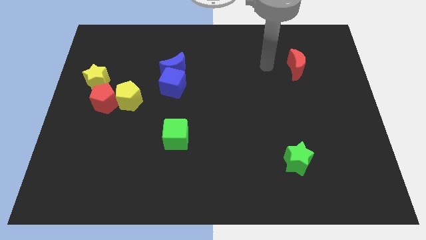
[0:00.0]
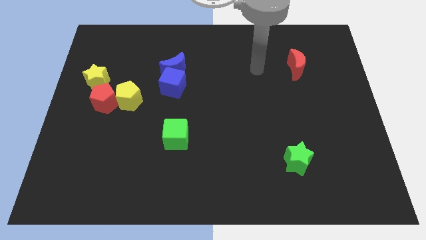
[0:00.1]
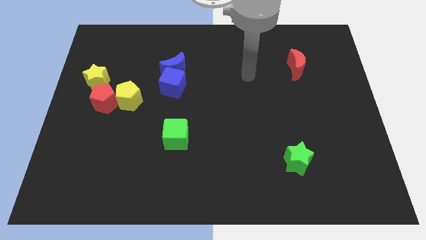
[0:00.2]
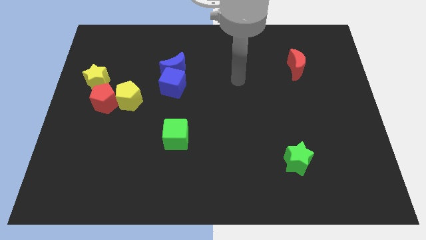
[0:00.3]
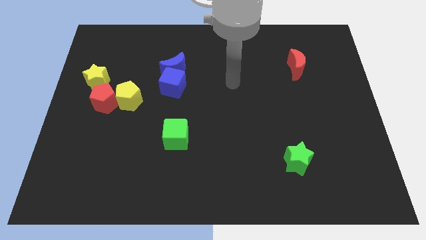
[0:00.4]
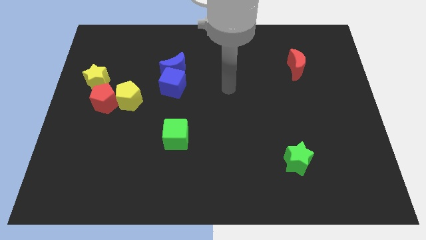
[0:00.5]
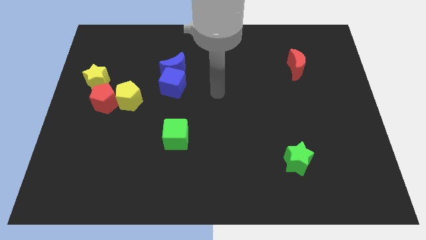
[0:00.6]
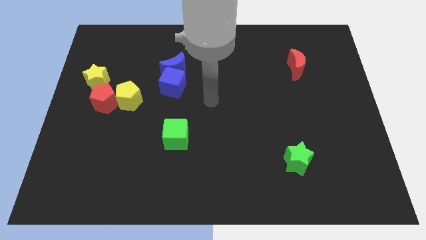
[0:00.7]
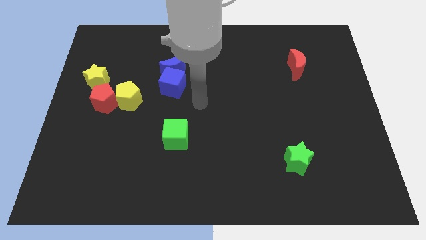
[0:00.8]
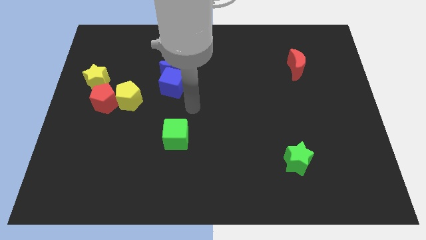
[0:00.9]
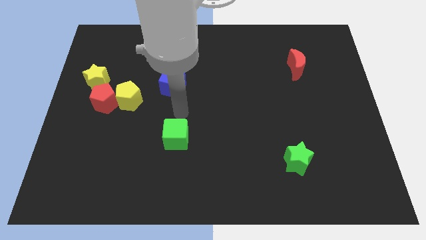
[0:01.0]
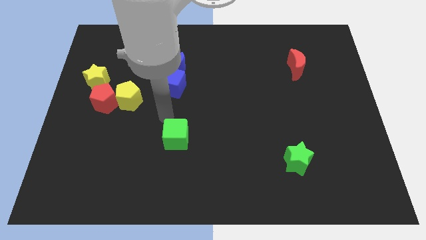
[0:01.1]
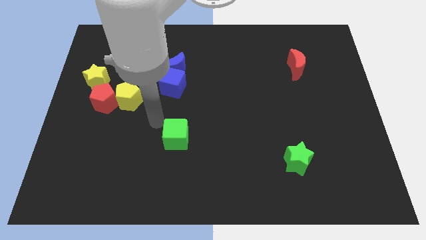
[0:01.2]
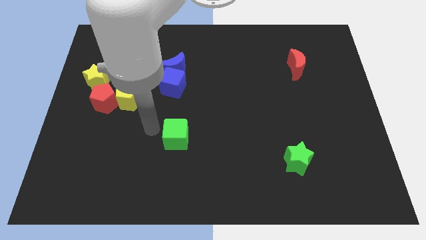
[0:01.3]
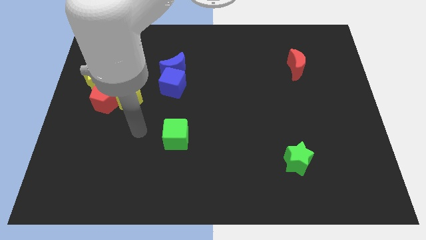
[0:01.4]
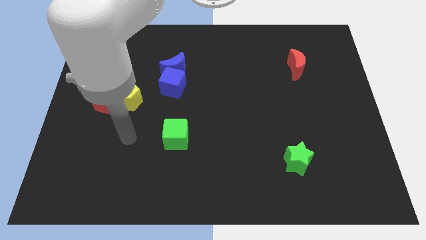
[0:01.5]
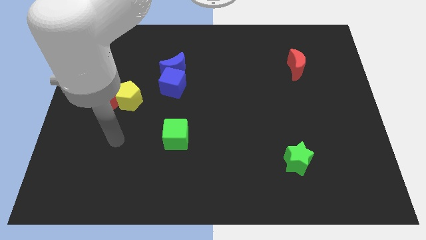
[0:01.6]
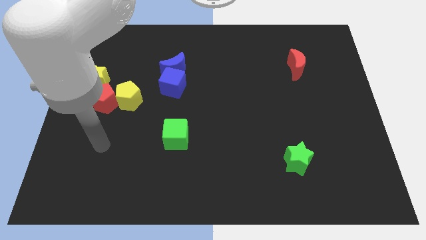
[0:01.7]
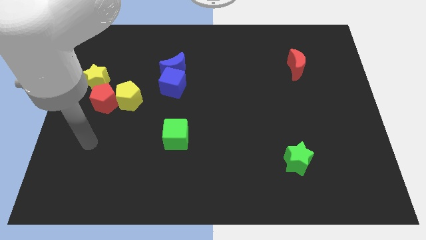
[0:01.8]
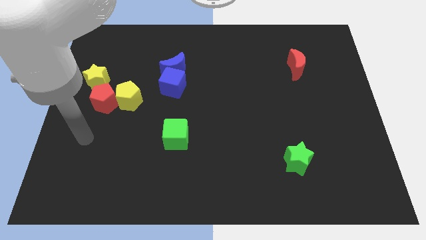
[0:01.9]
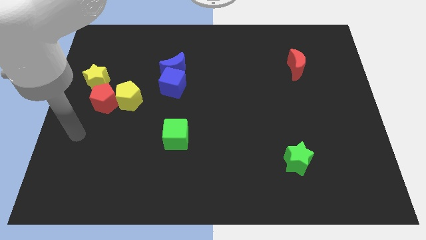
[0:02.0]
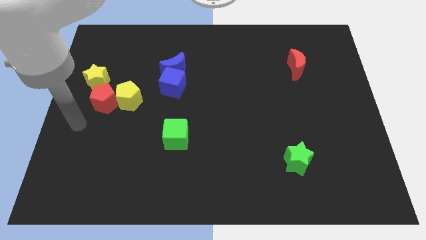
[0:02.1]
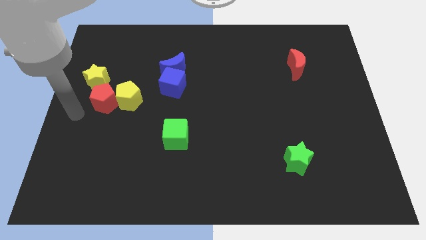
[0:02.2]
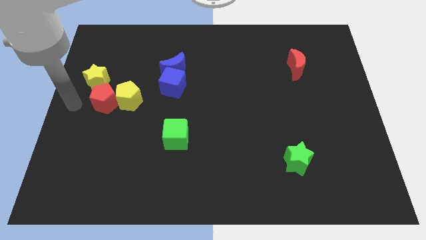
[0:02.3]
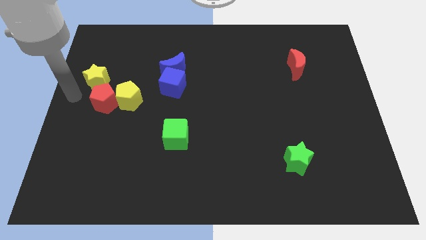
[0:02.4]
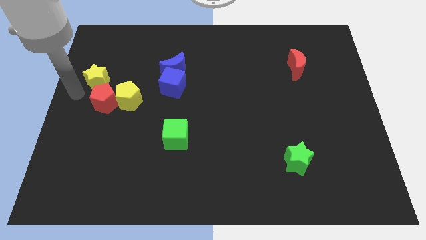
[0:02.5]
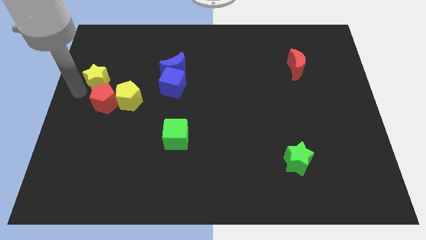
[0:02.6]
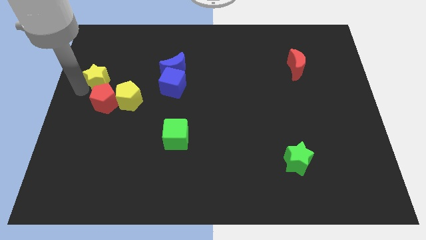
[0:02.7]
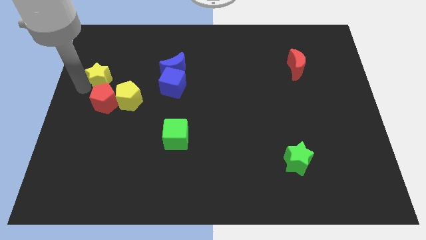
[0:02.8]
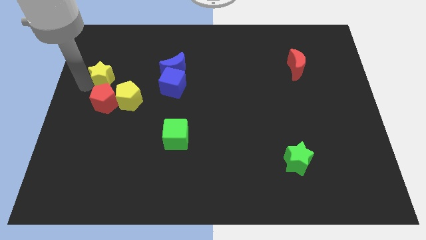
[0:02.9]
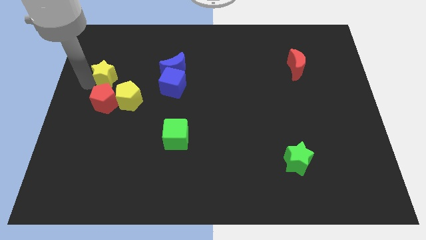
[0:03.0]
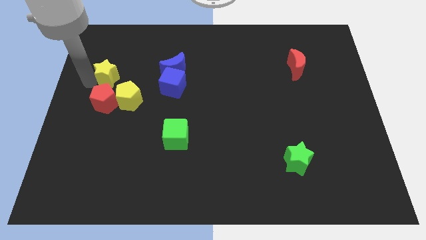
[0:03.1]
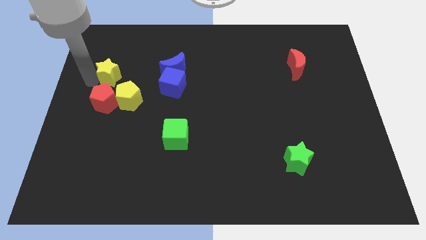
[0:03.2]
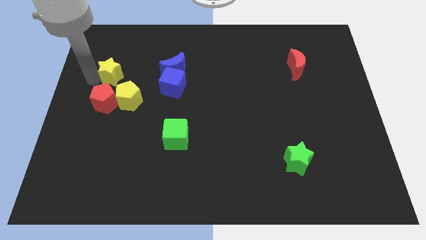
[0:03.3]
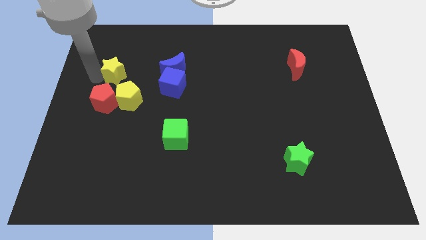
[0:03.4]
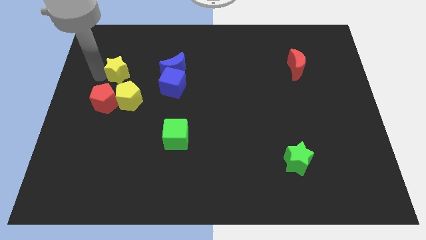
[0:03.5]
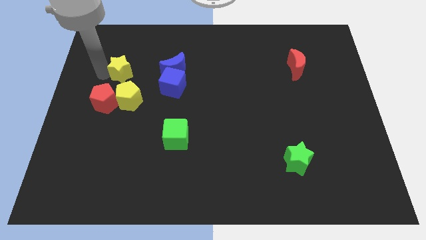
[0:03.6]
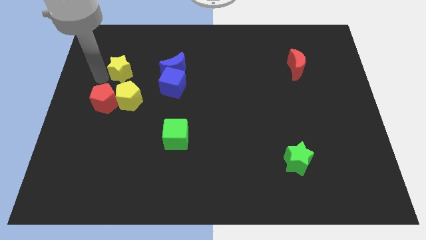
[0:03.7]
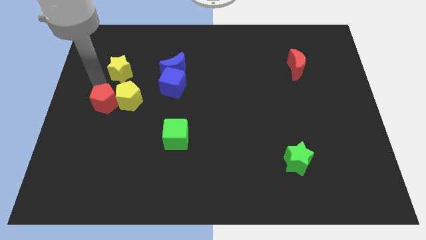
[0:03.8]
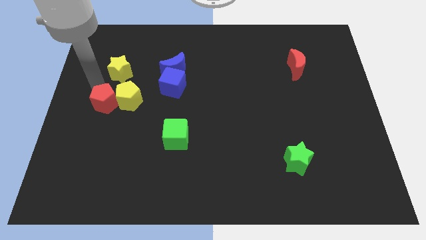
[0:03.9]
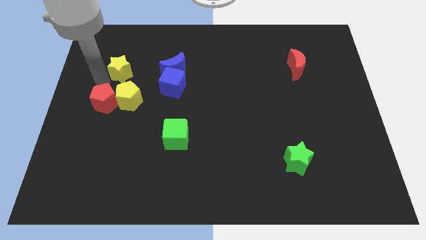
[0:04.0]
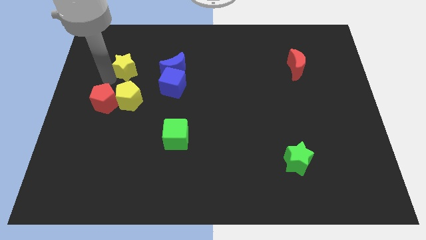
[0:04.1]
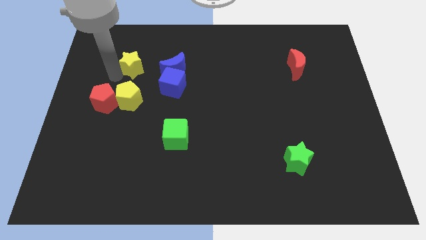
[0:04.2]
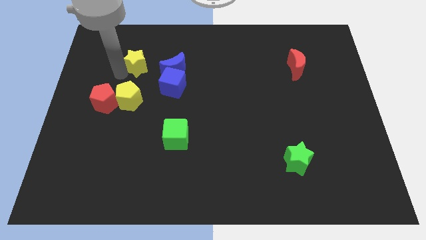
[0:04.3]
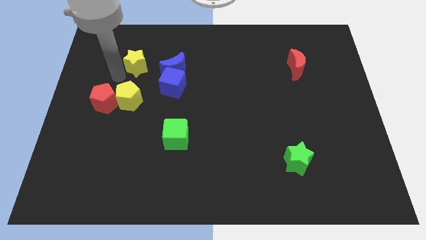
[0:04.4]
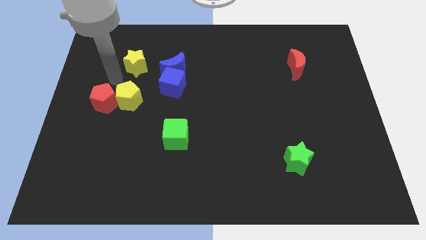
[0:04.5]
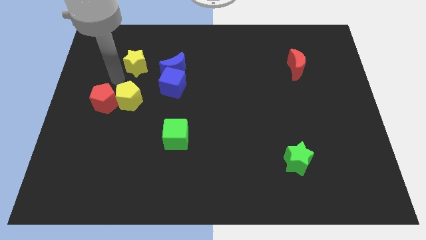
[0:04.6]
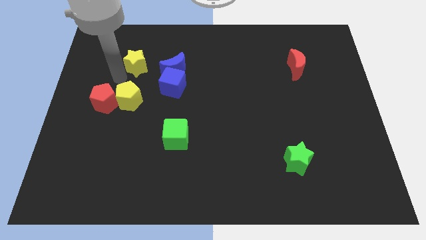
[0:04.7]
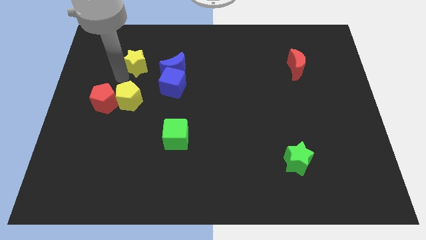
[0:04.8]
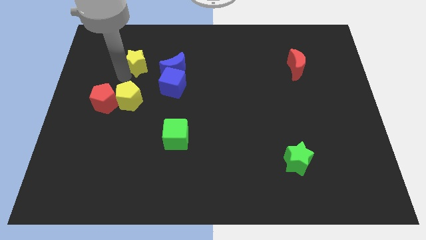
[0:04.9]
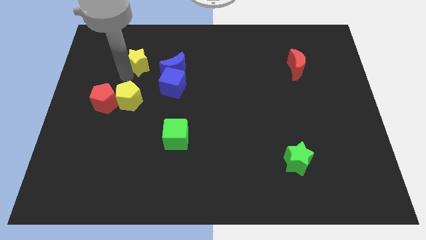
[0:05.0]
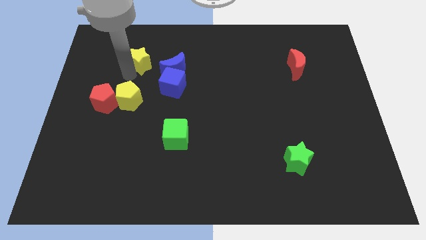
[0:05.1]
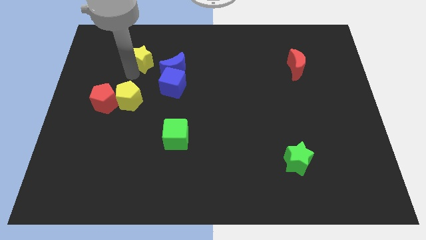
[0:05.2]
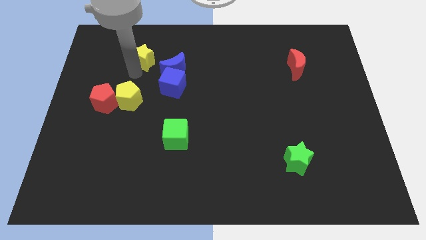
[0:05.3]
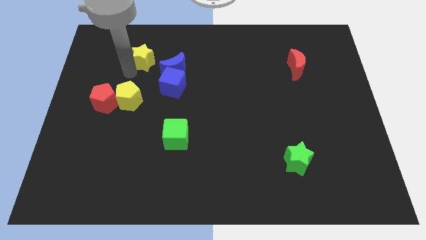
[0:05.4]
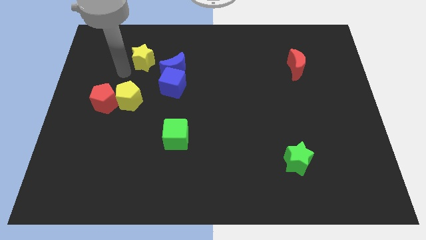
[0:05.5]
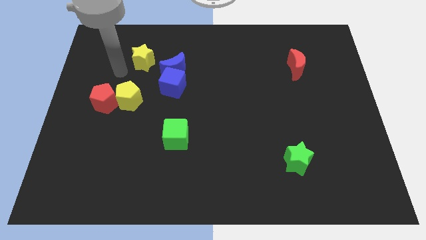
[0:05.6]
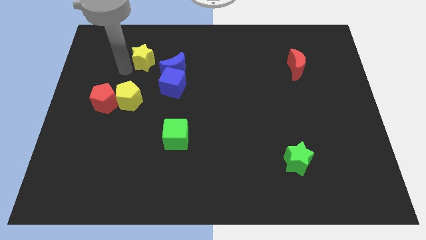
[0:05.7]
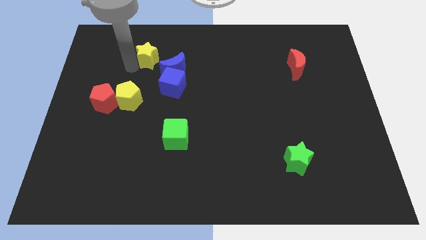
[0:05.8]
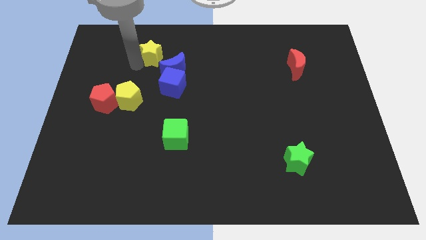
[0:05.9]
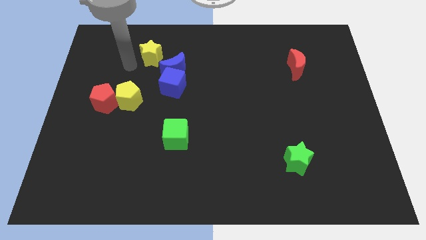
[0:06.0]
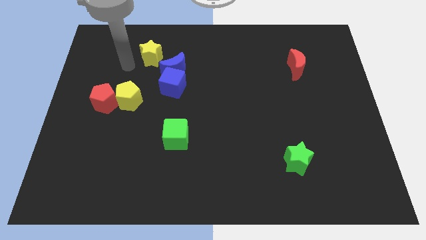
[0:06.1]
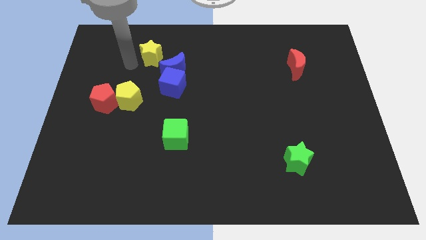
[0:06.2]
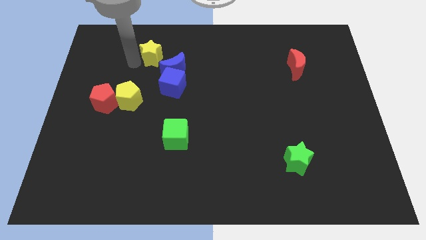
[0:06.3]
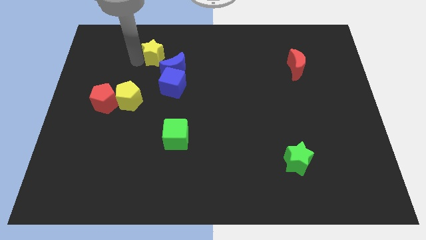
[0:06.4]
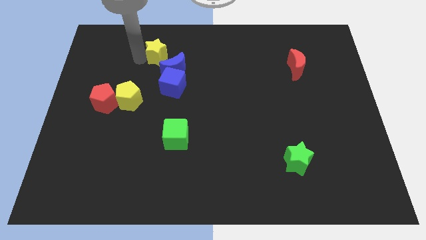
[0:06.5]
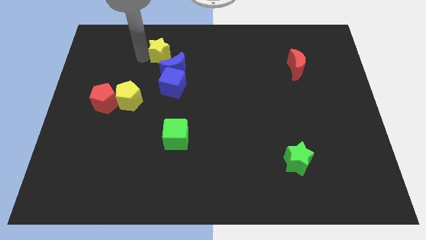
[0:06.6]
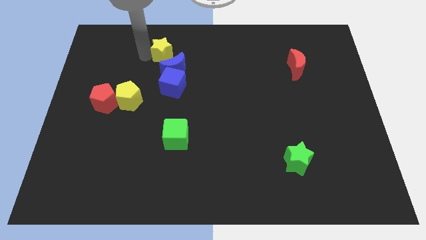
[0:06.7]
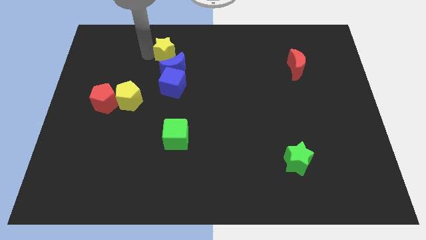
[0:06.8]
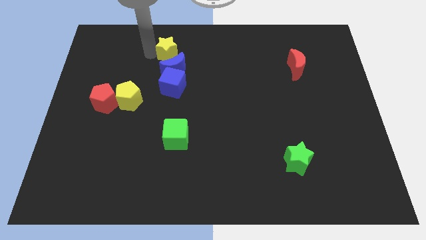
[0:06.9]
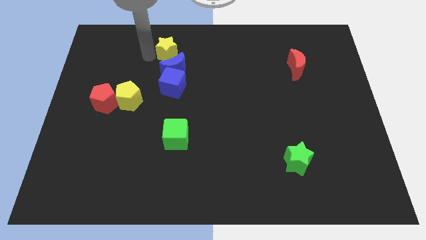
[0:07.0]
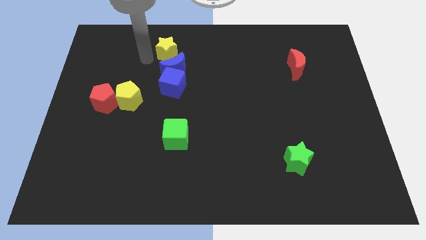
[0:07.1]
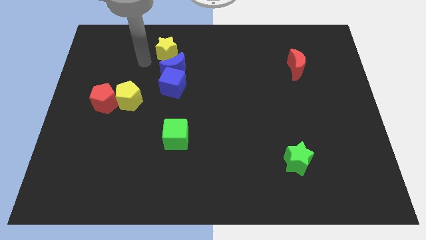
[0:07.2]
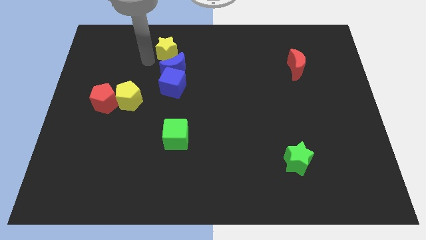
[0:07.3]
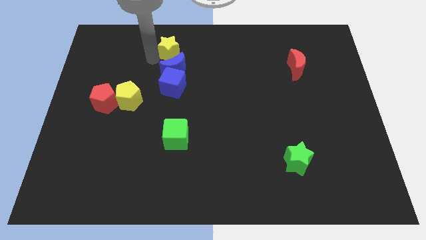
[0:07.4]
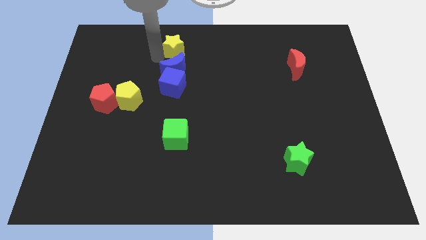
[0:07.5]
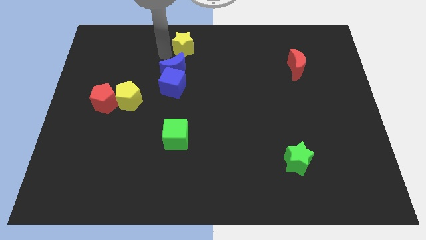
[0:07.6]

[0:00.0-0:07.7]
slide the yellow star to the top
